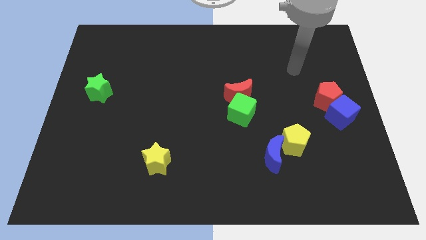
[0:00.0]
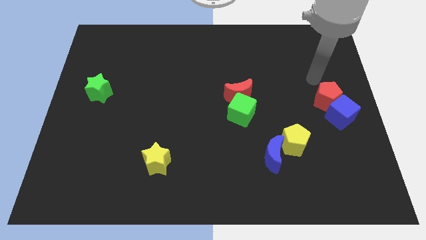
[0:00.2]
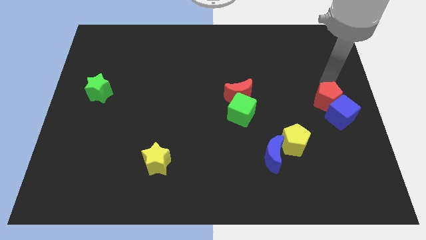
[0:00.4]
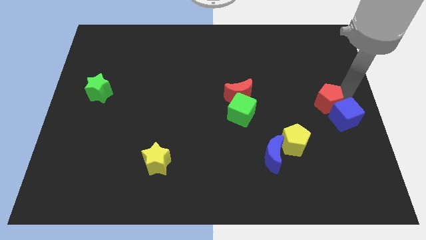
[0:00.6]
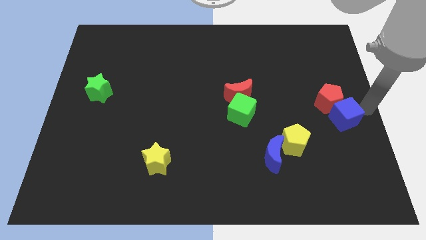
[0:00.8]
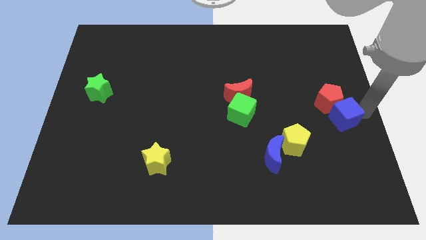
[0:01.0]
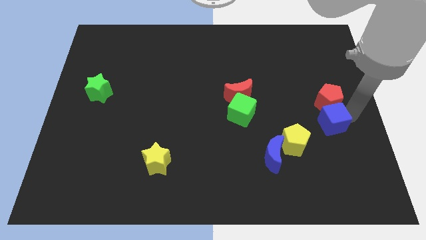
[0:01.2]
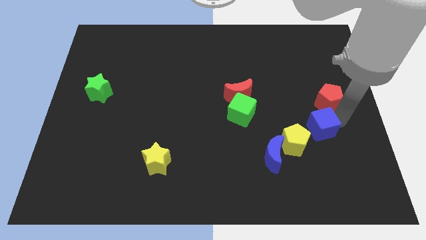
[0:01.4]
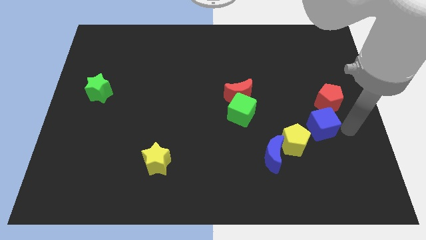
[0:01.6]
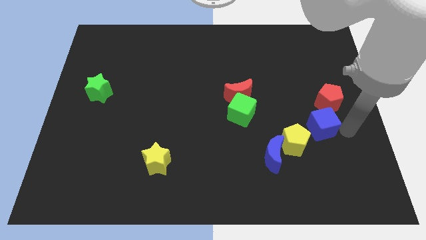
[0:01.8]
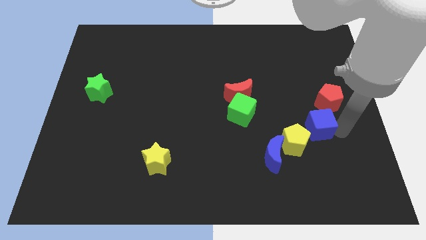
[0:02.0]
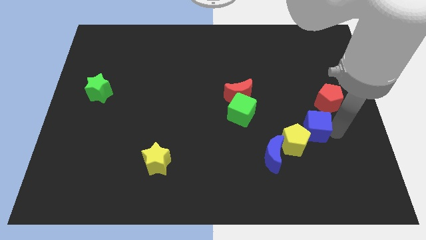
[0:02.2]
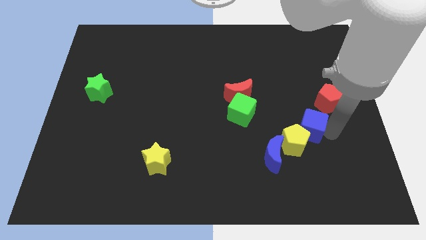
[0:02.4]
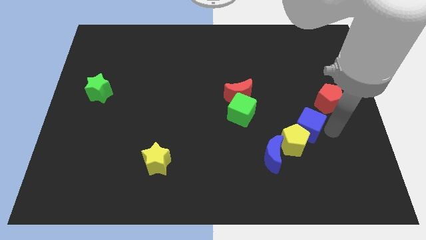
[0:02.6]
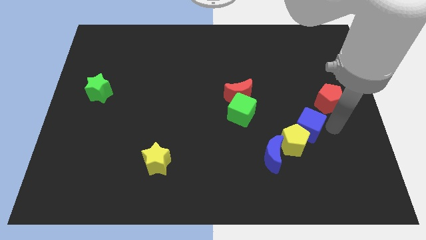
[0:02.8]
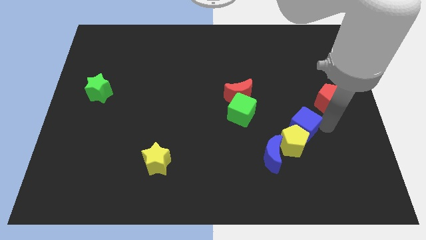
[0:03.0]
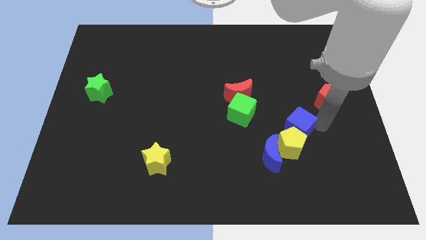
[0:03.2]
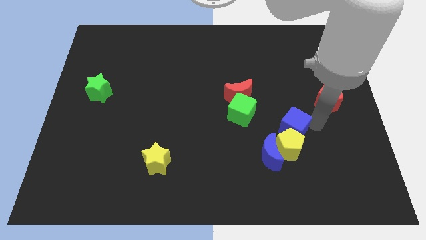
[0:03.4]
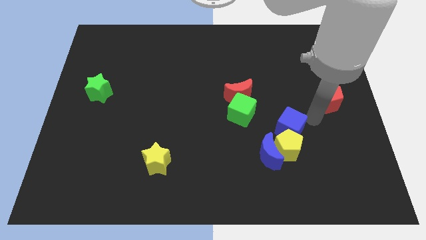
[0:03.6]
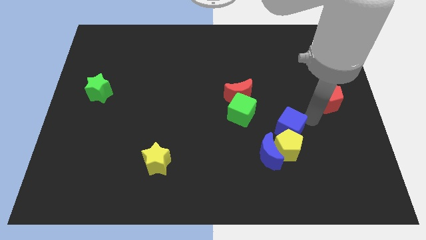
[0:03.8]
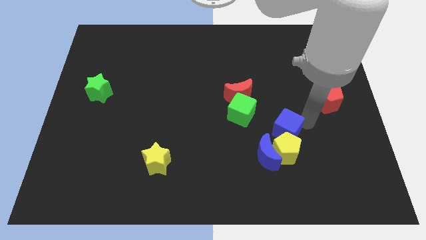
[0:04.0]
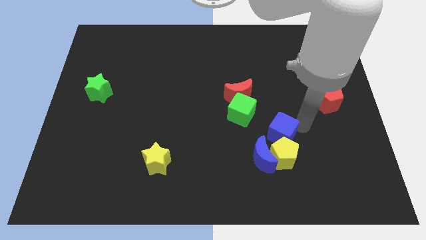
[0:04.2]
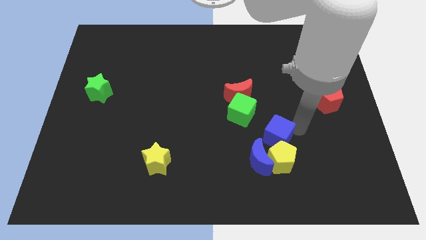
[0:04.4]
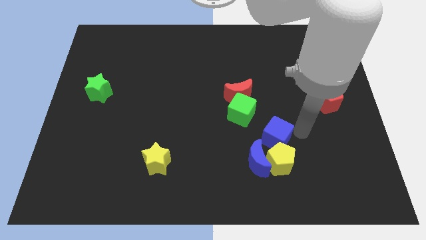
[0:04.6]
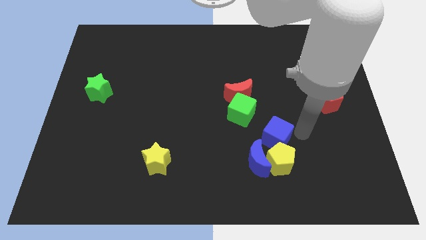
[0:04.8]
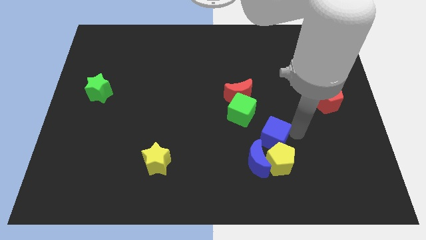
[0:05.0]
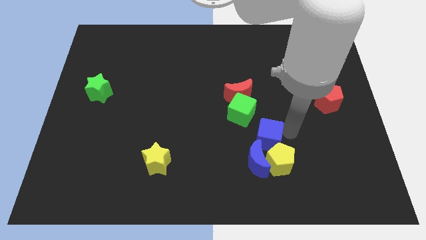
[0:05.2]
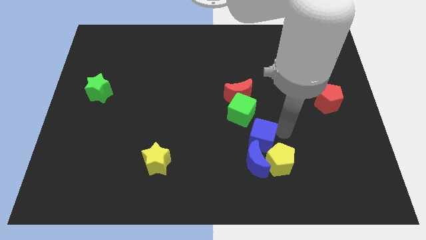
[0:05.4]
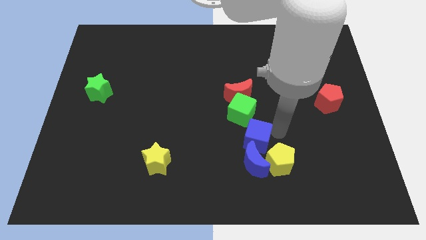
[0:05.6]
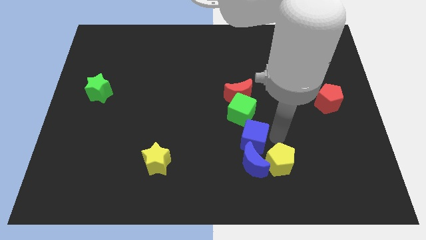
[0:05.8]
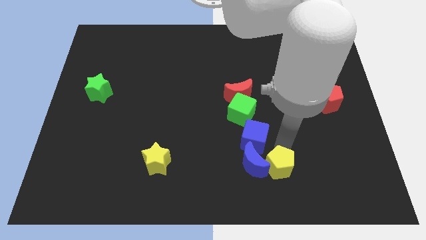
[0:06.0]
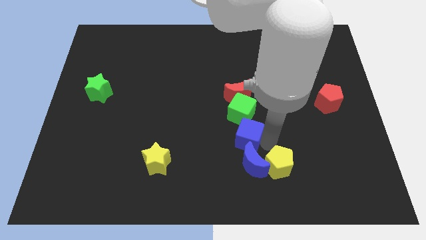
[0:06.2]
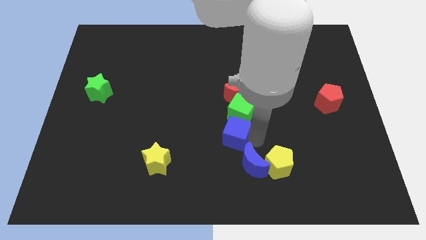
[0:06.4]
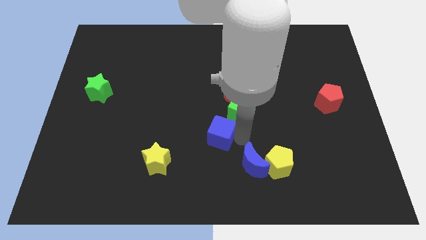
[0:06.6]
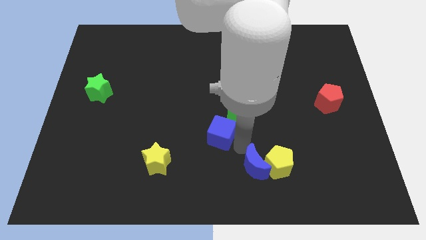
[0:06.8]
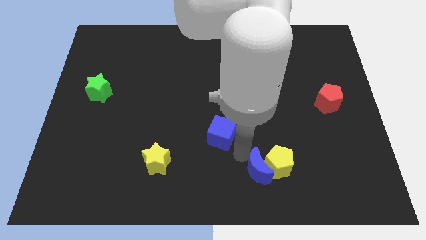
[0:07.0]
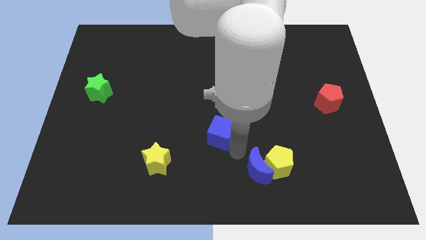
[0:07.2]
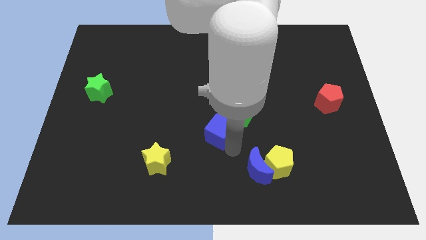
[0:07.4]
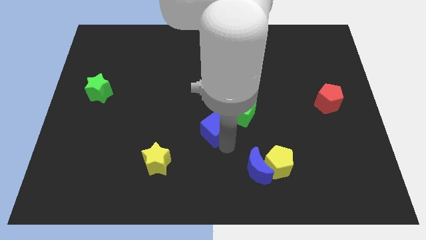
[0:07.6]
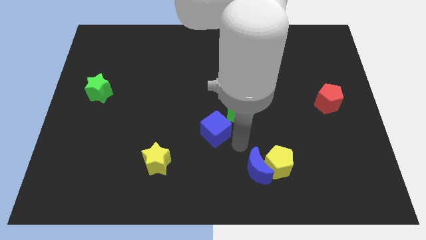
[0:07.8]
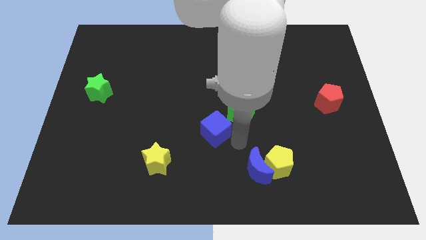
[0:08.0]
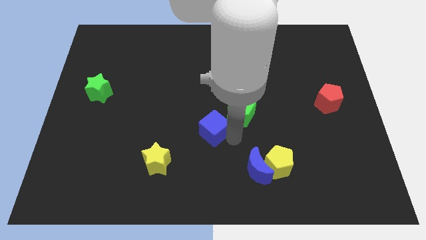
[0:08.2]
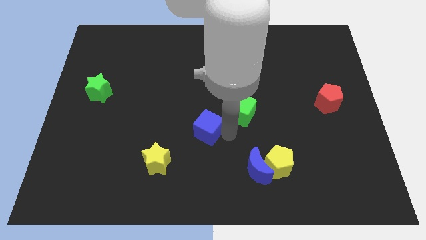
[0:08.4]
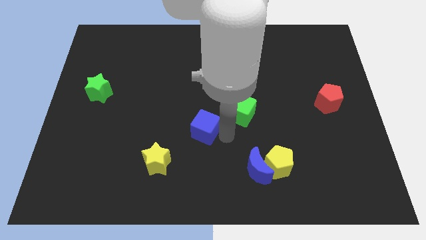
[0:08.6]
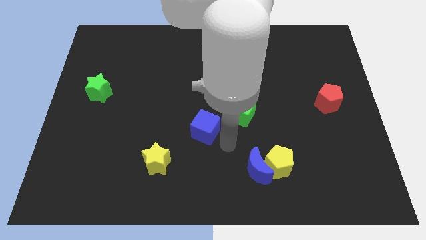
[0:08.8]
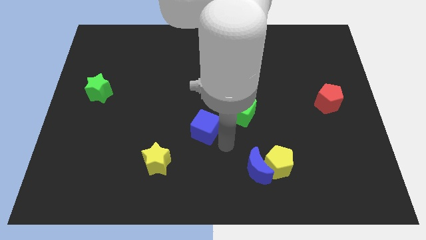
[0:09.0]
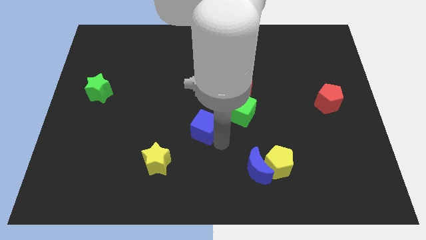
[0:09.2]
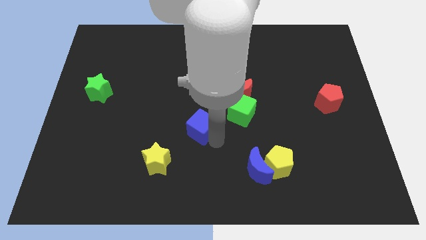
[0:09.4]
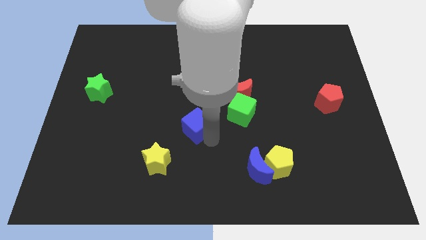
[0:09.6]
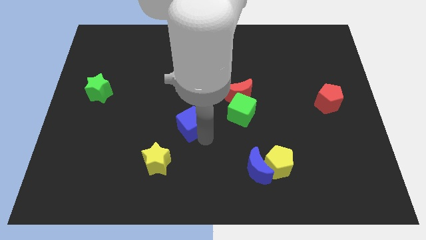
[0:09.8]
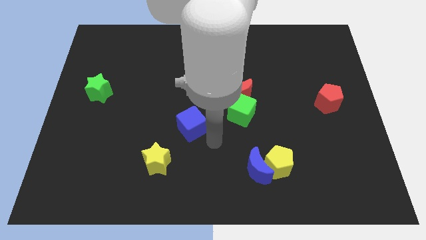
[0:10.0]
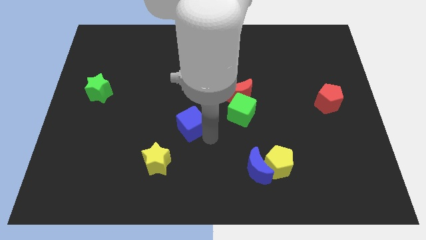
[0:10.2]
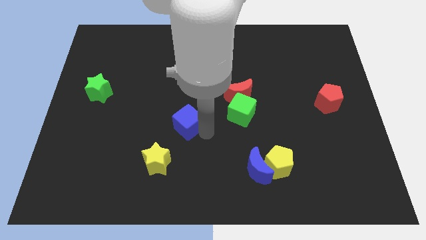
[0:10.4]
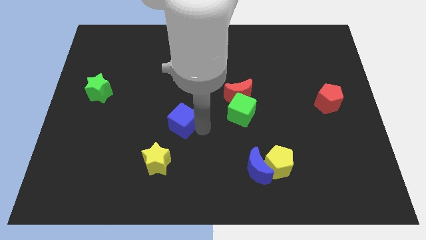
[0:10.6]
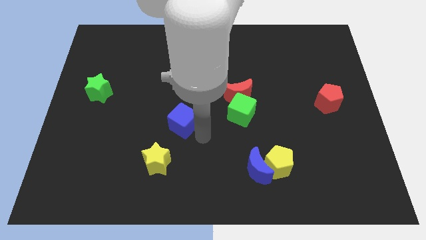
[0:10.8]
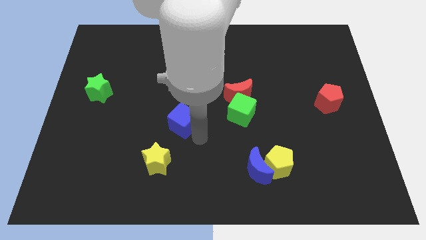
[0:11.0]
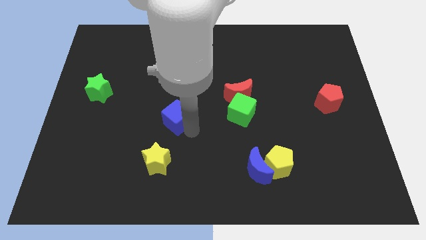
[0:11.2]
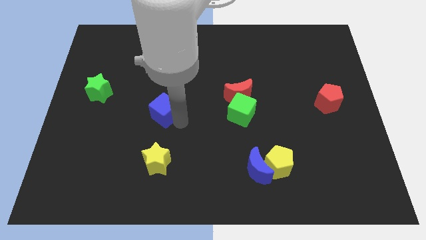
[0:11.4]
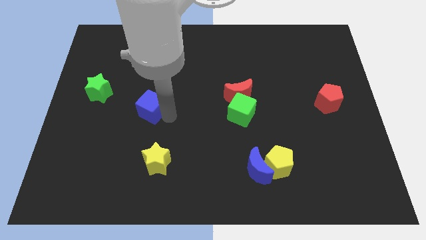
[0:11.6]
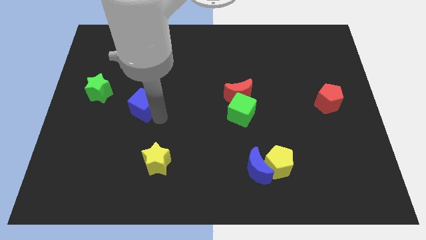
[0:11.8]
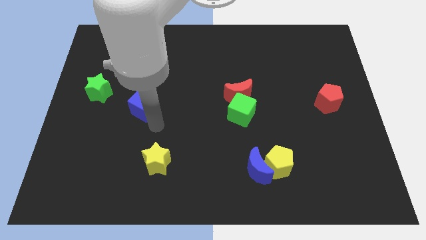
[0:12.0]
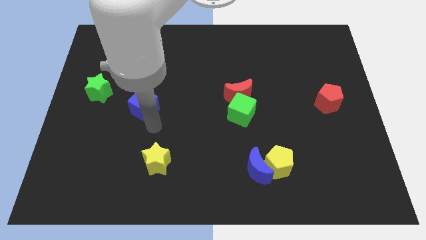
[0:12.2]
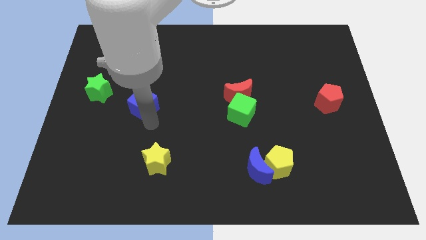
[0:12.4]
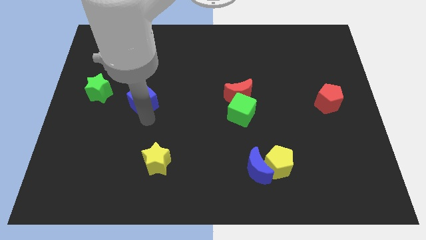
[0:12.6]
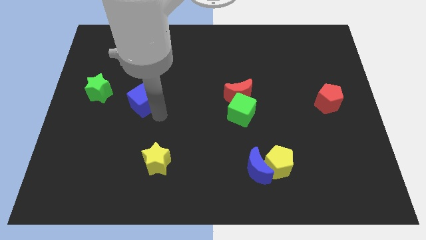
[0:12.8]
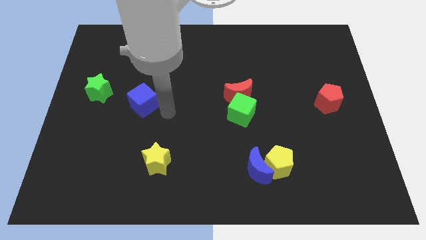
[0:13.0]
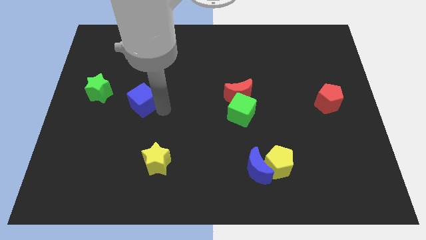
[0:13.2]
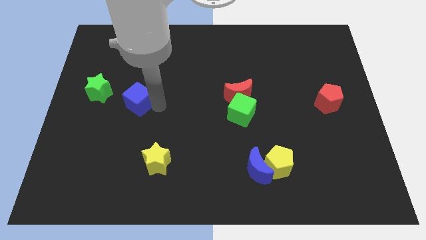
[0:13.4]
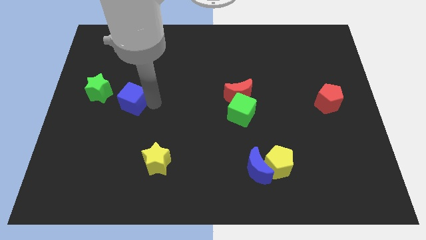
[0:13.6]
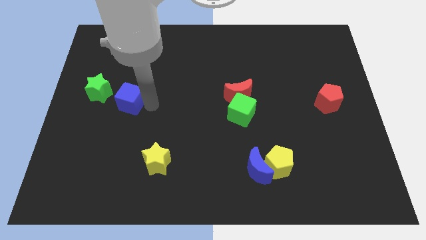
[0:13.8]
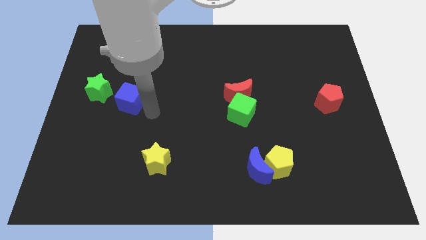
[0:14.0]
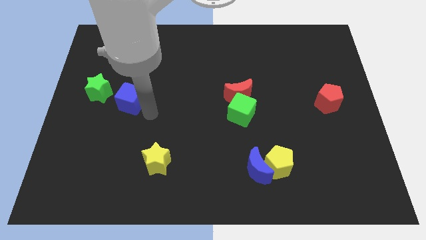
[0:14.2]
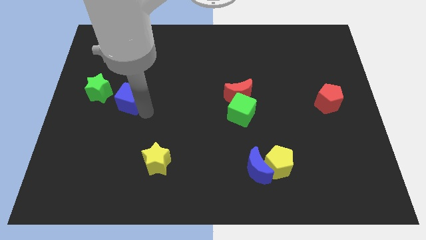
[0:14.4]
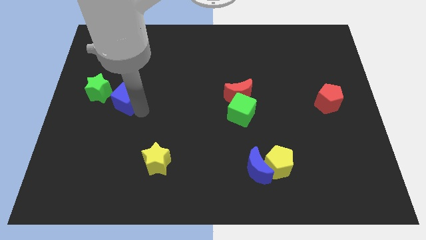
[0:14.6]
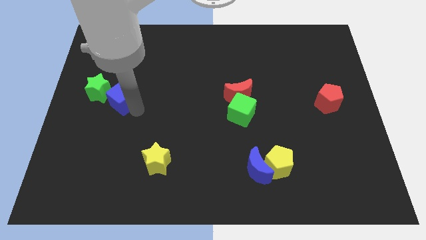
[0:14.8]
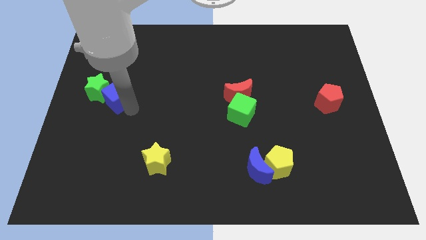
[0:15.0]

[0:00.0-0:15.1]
push the blue cube next to the green star
